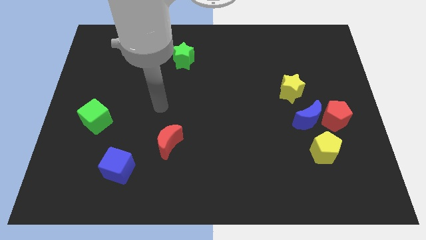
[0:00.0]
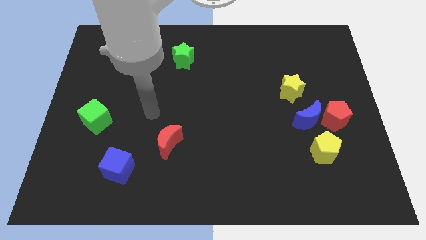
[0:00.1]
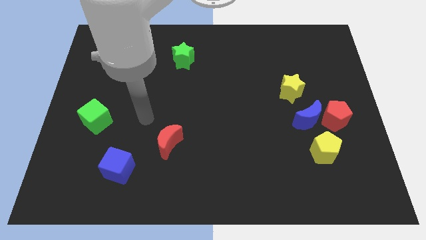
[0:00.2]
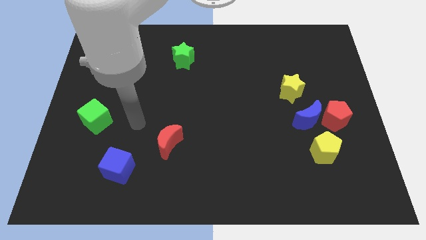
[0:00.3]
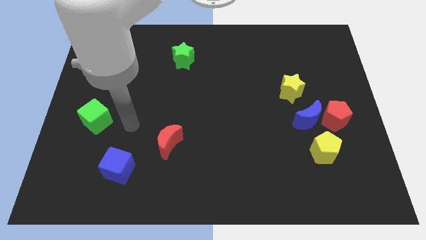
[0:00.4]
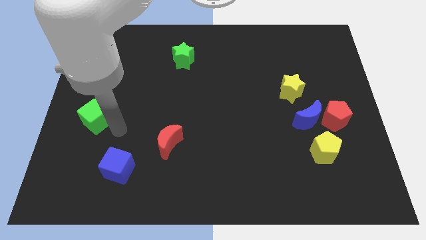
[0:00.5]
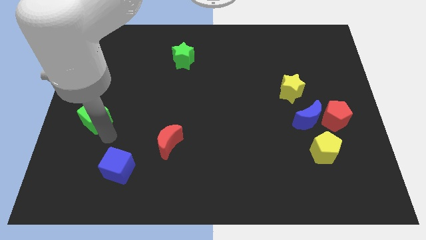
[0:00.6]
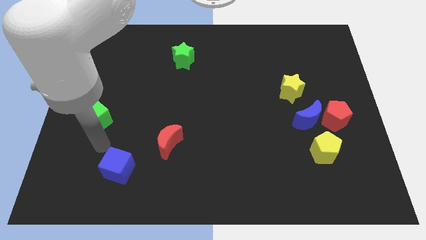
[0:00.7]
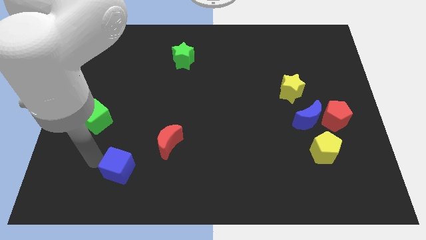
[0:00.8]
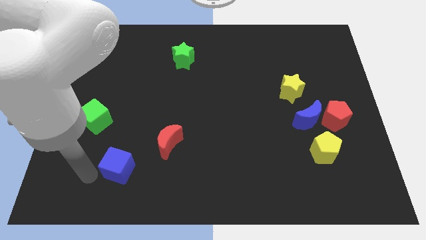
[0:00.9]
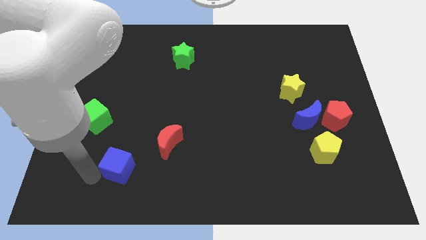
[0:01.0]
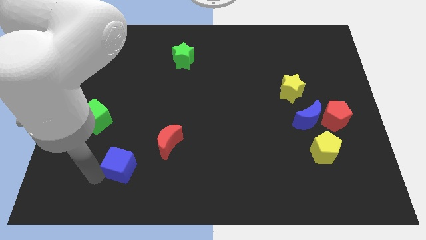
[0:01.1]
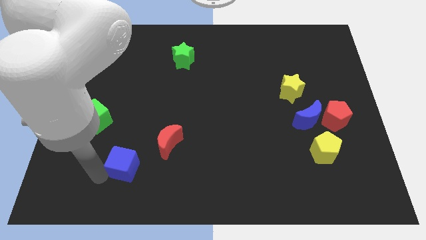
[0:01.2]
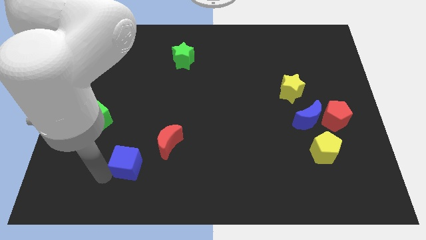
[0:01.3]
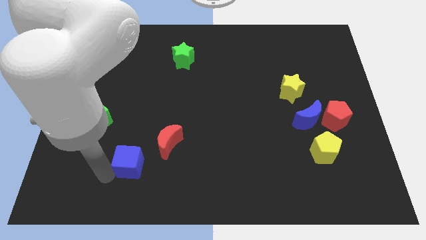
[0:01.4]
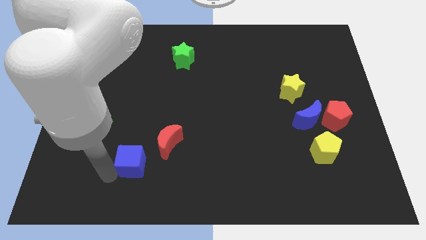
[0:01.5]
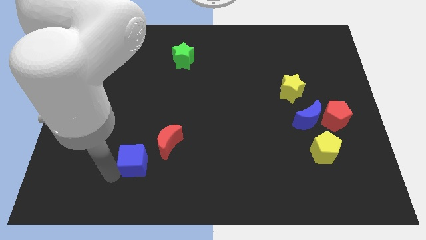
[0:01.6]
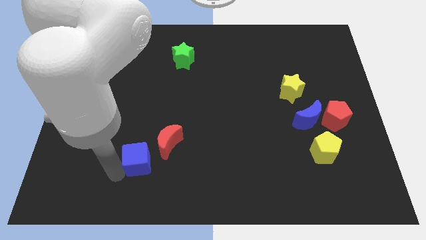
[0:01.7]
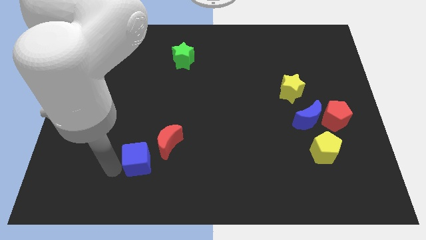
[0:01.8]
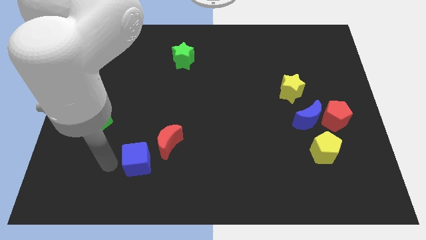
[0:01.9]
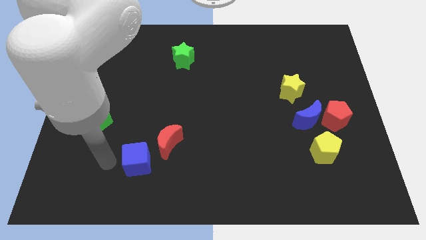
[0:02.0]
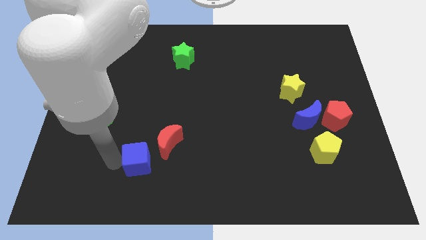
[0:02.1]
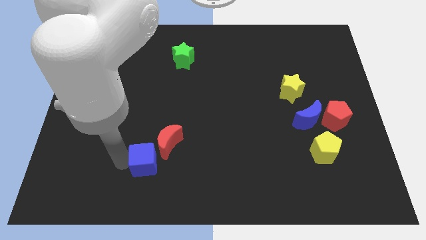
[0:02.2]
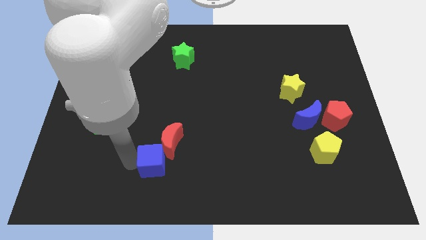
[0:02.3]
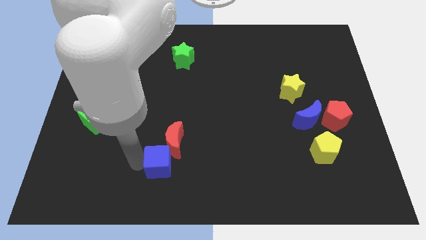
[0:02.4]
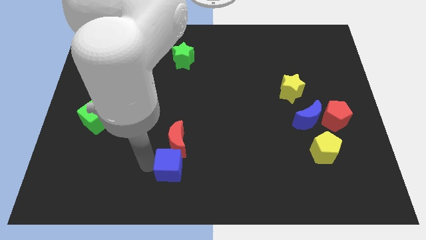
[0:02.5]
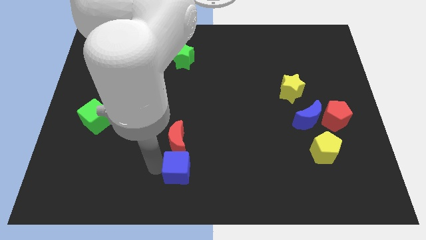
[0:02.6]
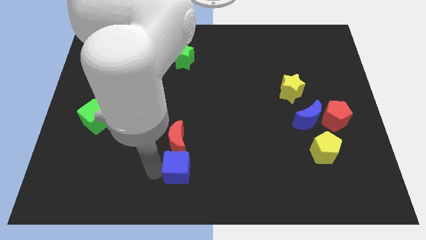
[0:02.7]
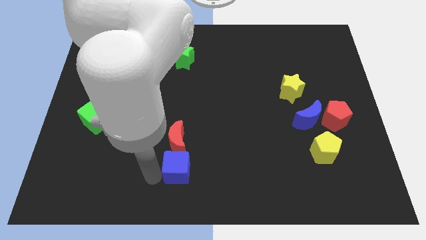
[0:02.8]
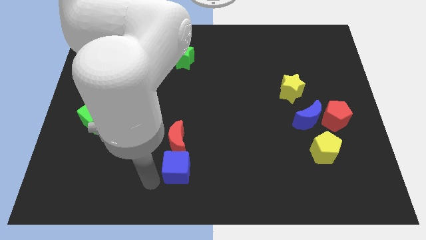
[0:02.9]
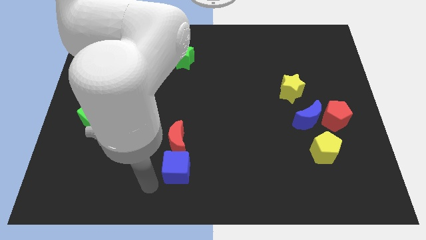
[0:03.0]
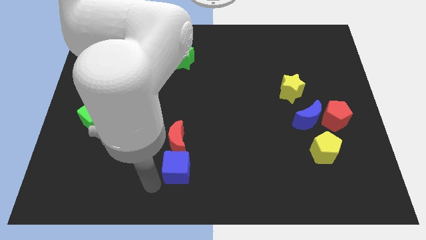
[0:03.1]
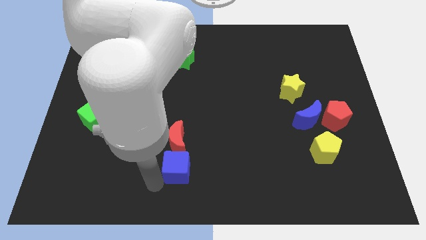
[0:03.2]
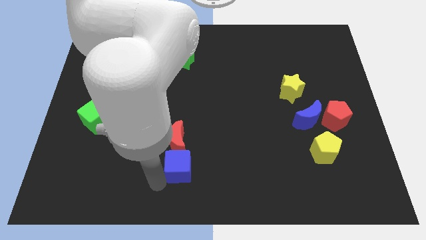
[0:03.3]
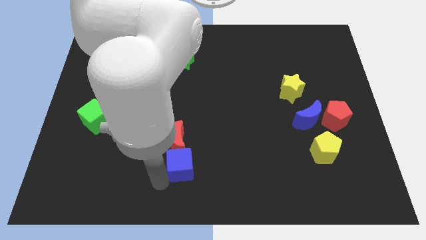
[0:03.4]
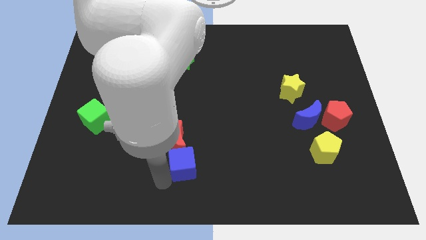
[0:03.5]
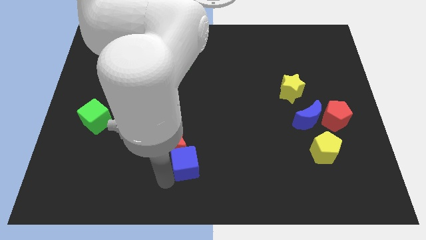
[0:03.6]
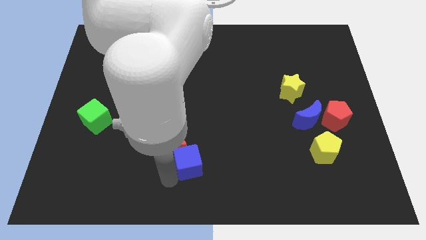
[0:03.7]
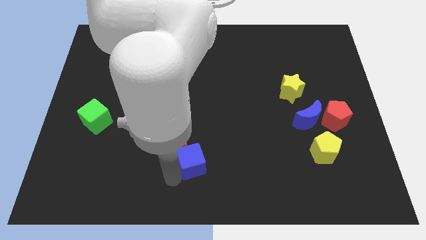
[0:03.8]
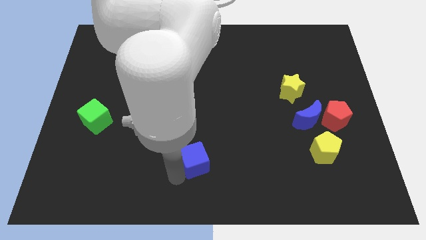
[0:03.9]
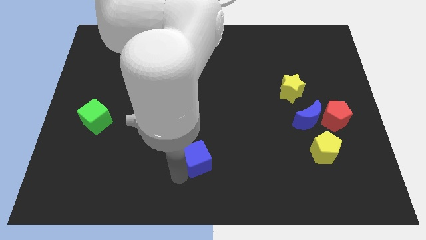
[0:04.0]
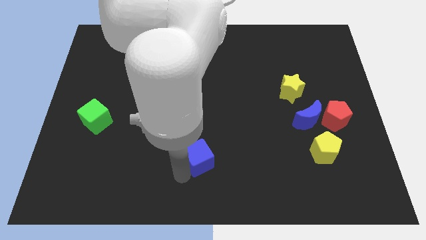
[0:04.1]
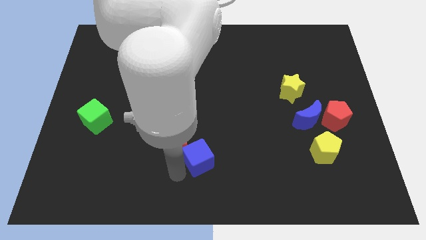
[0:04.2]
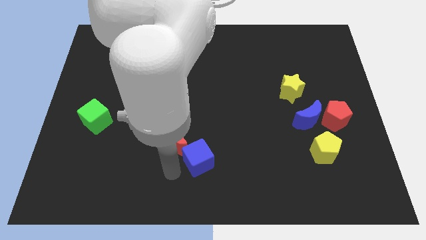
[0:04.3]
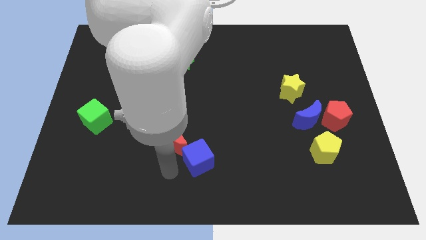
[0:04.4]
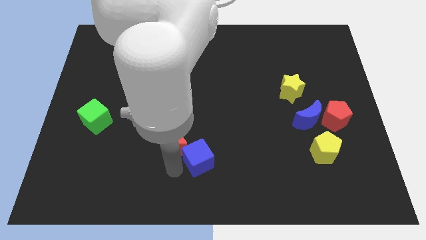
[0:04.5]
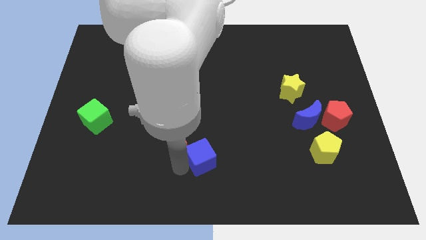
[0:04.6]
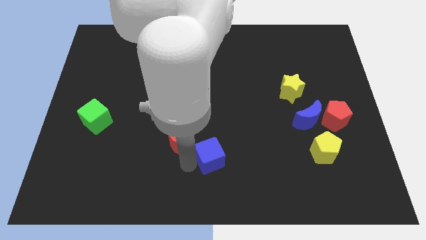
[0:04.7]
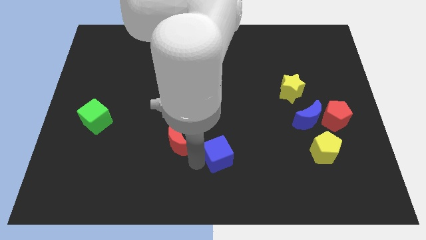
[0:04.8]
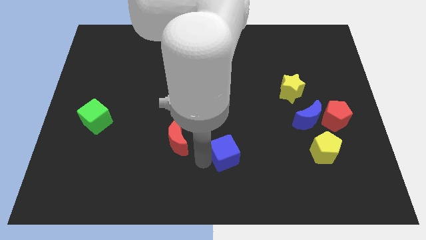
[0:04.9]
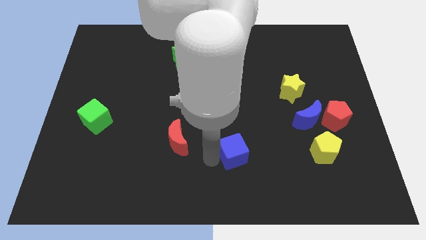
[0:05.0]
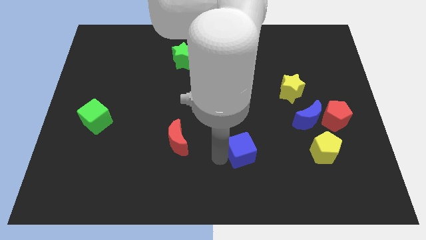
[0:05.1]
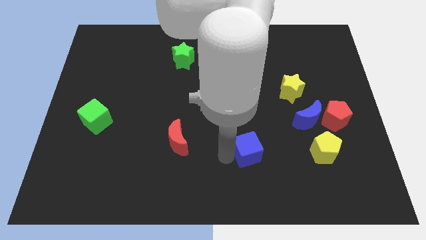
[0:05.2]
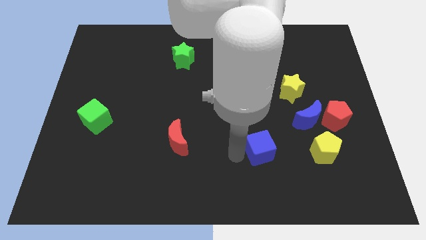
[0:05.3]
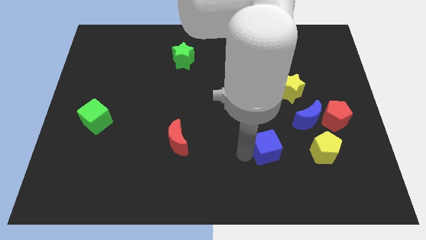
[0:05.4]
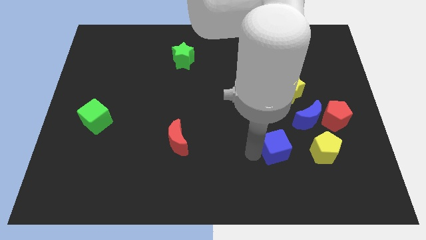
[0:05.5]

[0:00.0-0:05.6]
move the blue cube to the bottom left side of the blue moon

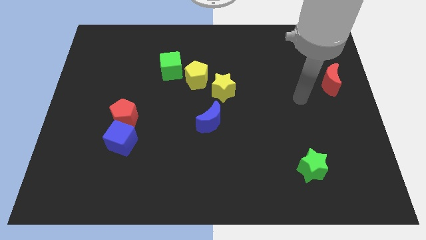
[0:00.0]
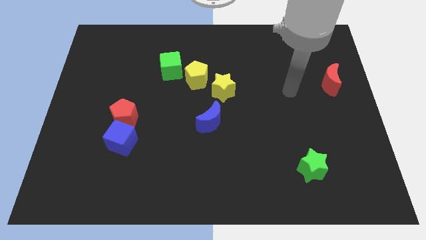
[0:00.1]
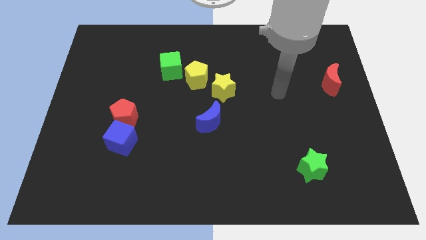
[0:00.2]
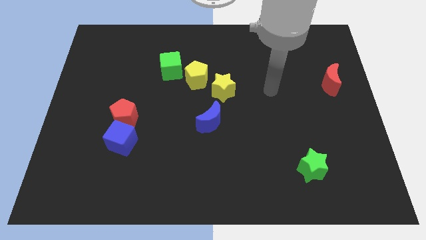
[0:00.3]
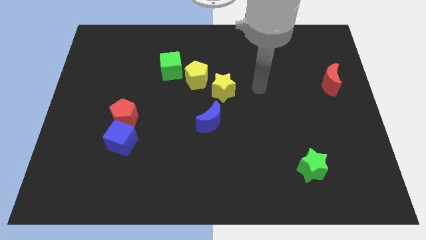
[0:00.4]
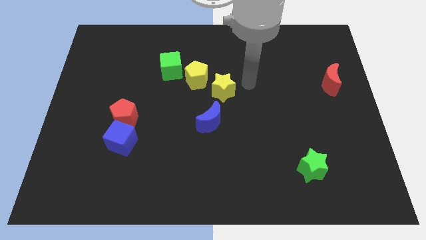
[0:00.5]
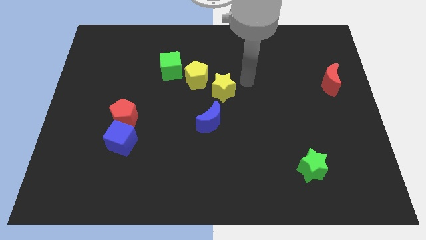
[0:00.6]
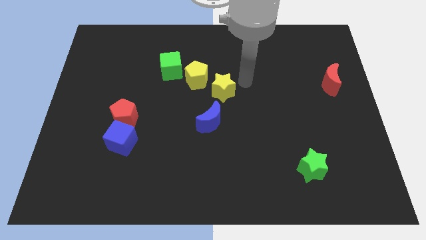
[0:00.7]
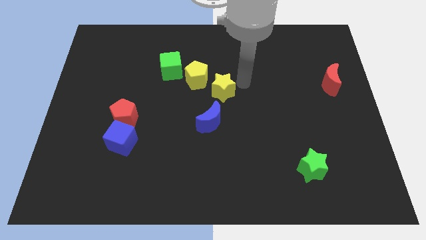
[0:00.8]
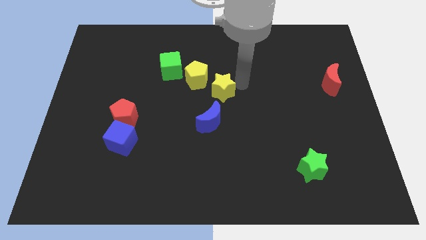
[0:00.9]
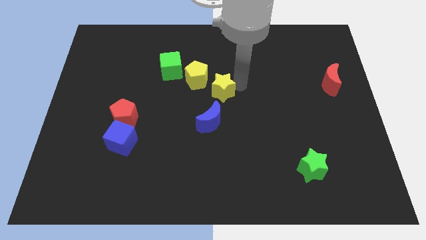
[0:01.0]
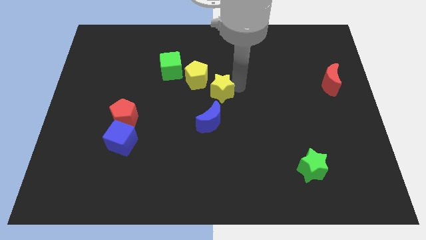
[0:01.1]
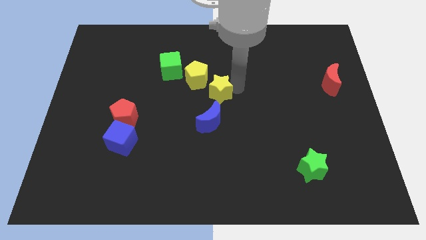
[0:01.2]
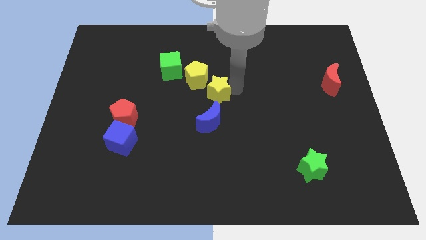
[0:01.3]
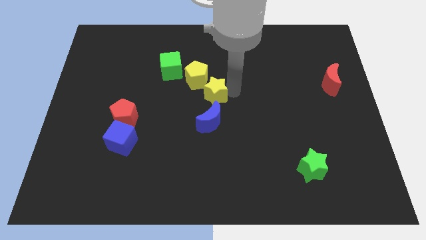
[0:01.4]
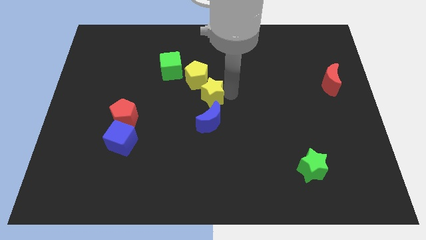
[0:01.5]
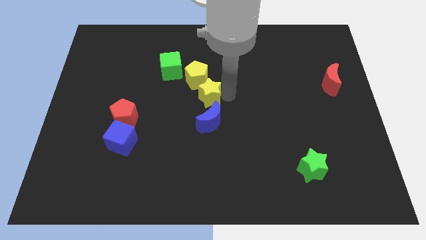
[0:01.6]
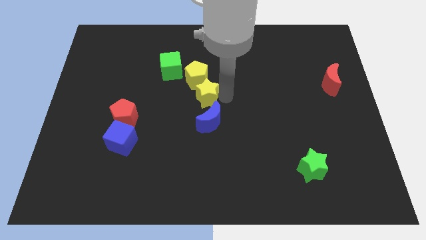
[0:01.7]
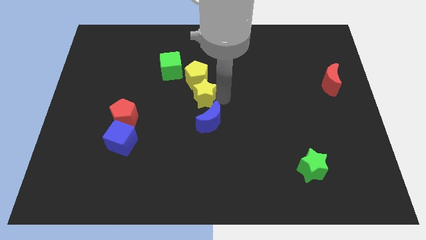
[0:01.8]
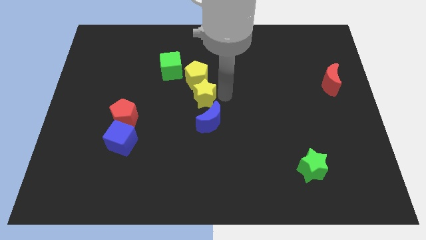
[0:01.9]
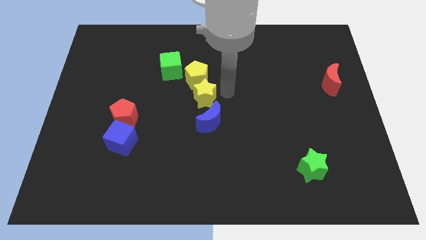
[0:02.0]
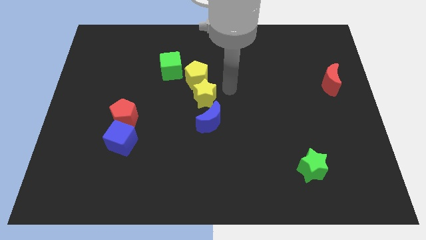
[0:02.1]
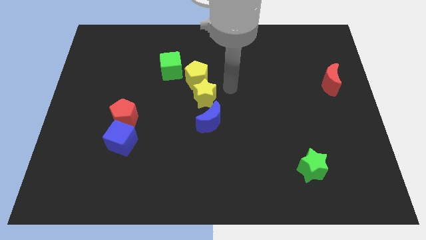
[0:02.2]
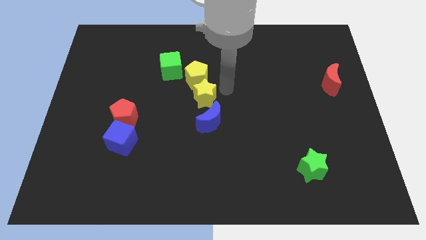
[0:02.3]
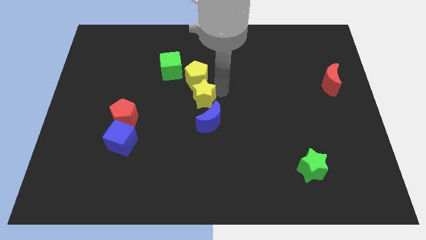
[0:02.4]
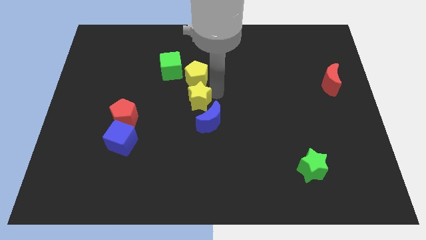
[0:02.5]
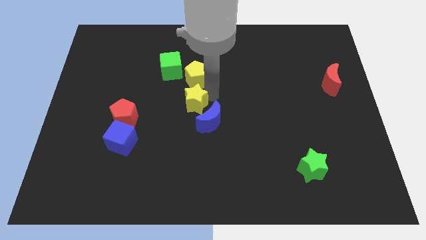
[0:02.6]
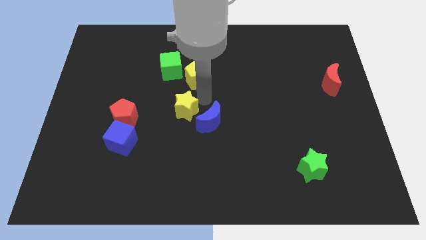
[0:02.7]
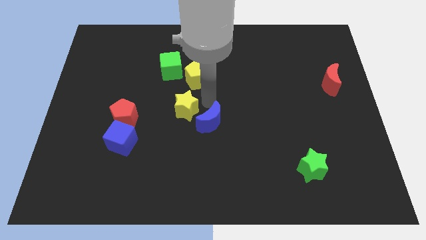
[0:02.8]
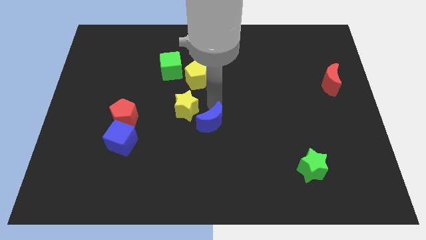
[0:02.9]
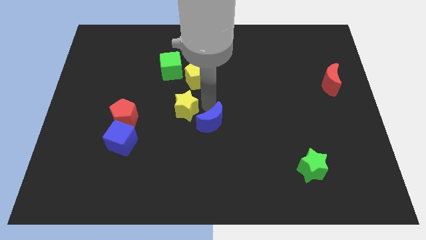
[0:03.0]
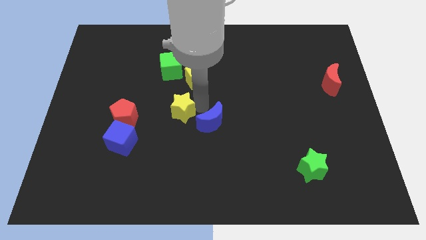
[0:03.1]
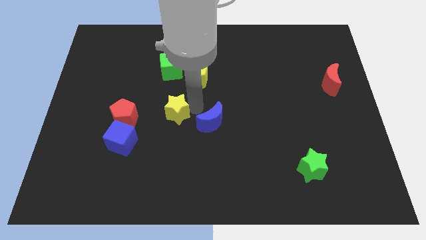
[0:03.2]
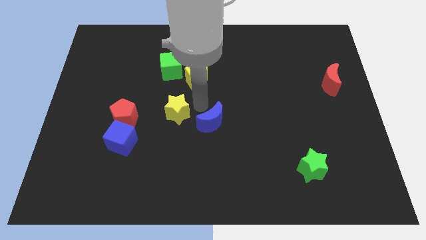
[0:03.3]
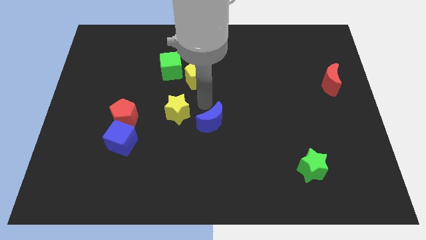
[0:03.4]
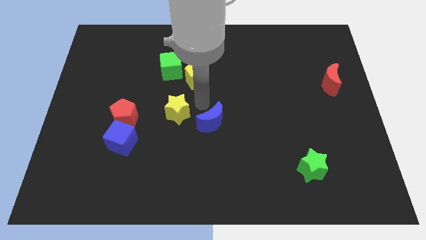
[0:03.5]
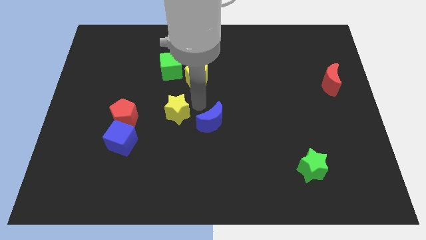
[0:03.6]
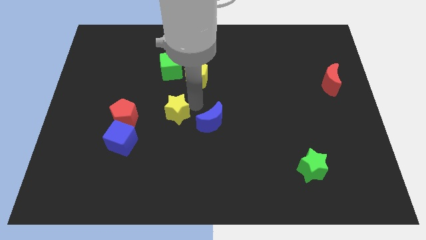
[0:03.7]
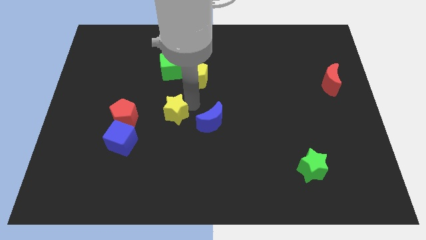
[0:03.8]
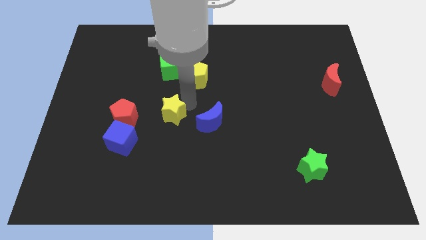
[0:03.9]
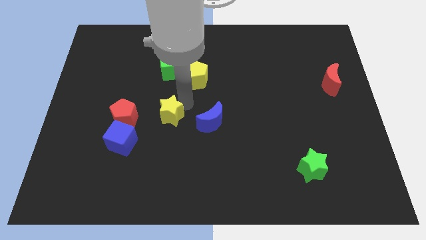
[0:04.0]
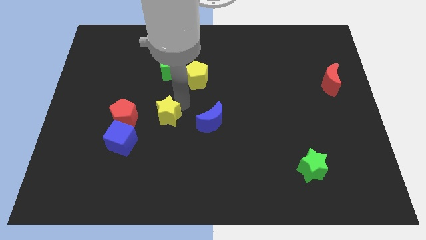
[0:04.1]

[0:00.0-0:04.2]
push the yellow star to the top right of the blue cube
